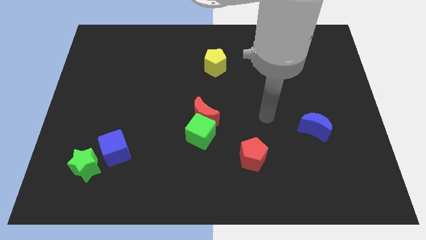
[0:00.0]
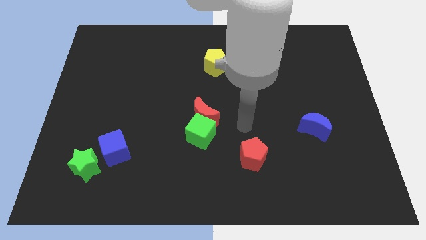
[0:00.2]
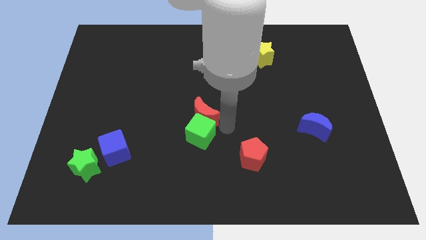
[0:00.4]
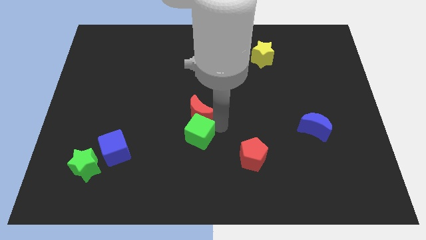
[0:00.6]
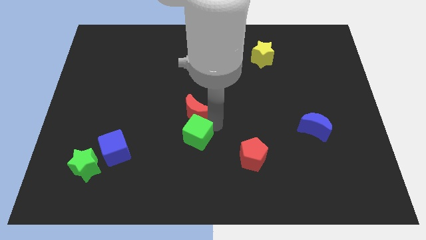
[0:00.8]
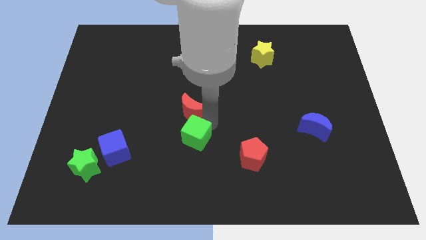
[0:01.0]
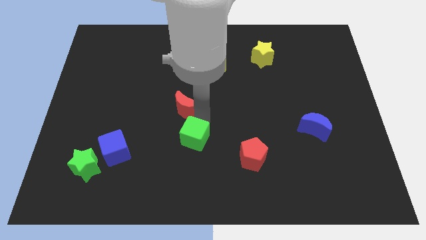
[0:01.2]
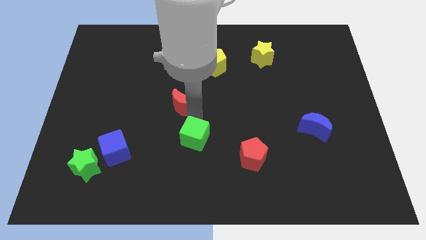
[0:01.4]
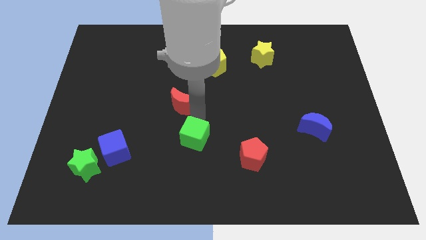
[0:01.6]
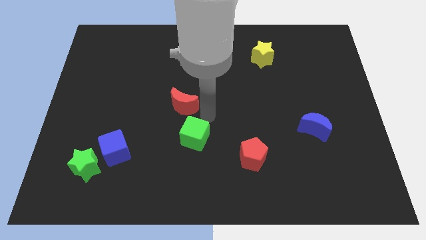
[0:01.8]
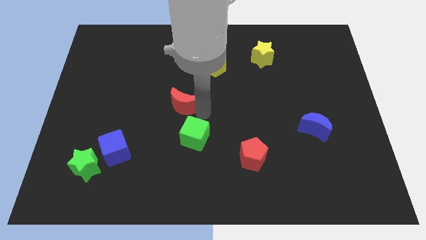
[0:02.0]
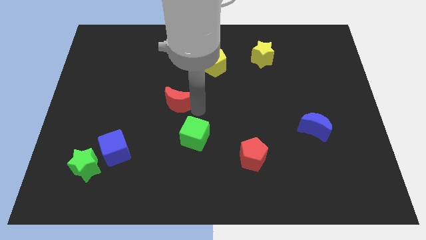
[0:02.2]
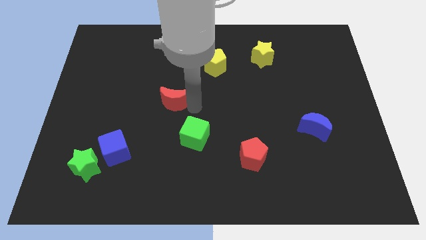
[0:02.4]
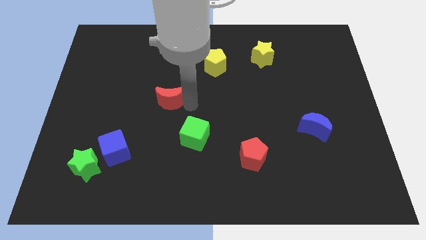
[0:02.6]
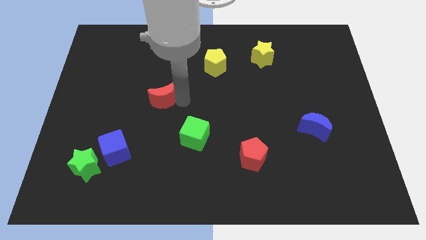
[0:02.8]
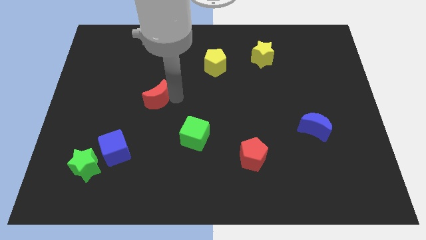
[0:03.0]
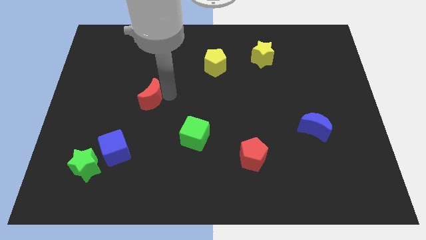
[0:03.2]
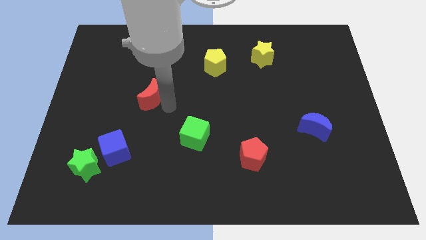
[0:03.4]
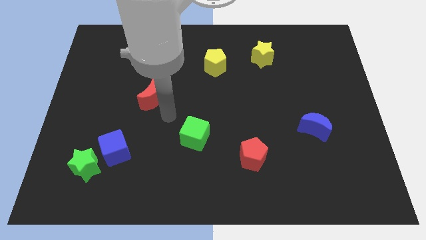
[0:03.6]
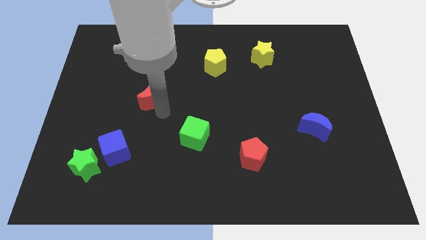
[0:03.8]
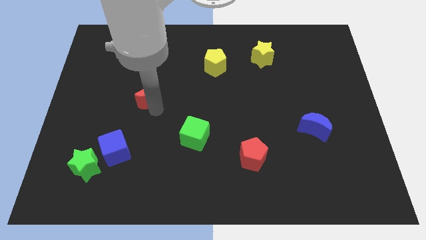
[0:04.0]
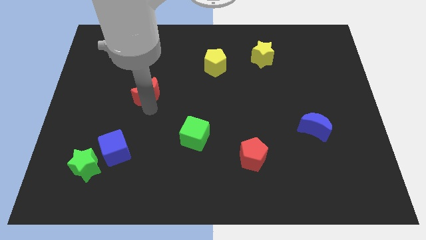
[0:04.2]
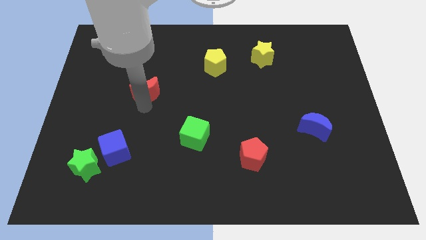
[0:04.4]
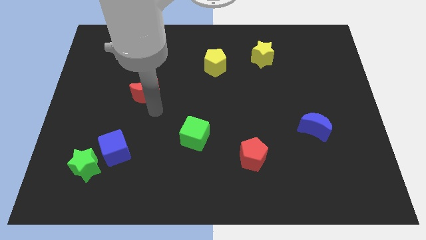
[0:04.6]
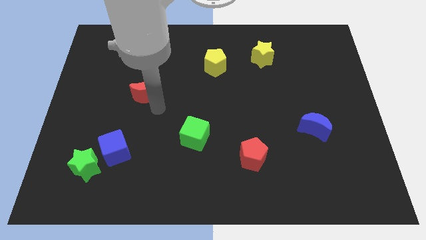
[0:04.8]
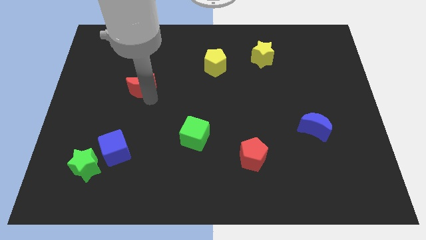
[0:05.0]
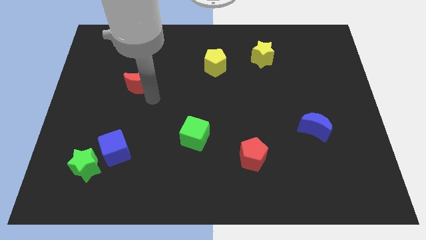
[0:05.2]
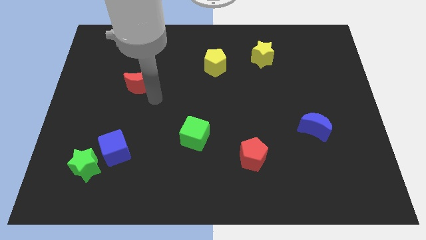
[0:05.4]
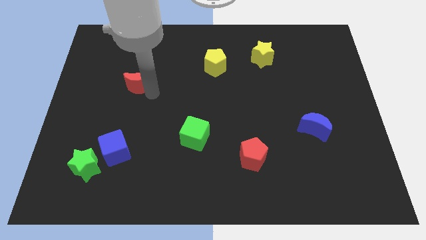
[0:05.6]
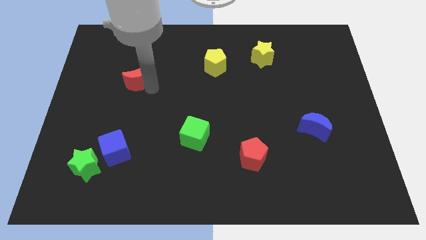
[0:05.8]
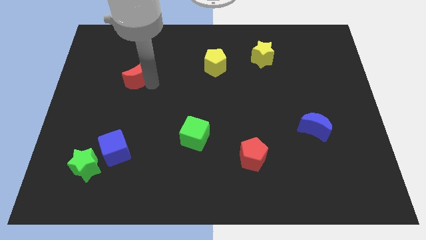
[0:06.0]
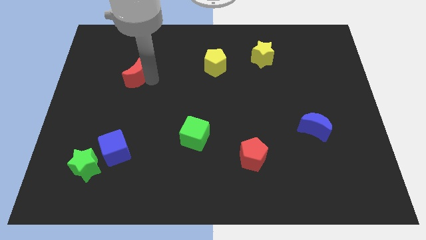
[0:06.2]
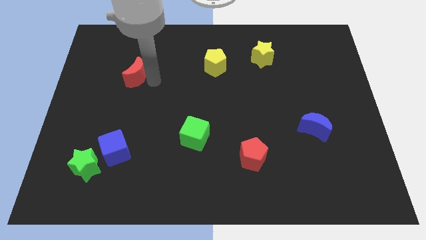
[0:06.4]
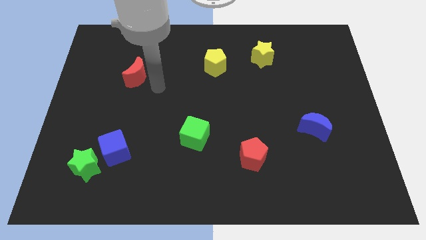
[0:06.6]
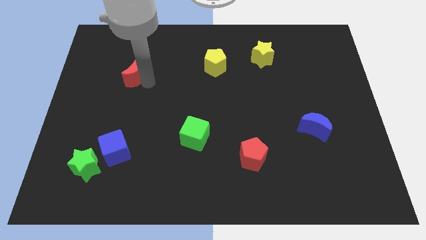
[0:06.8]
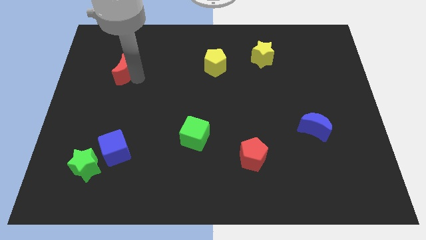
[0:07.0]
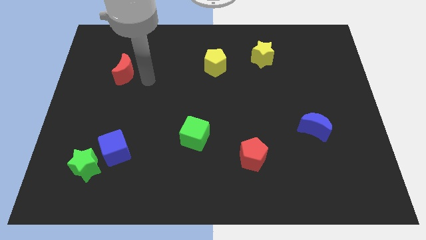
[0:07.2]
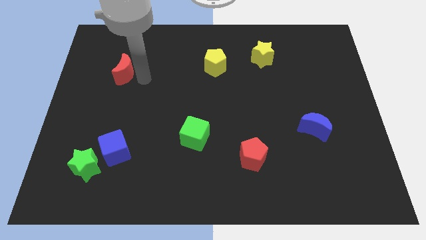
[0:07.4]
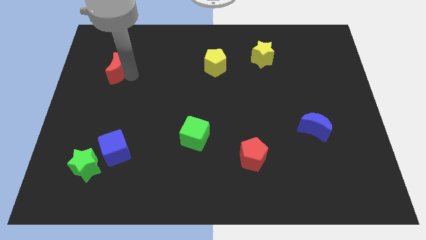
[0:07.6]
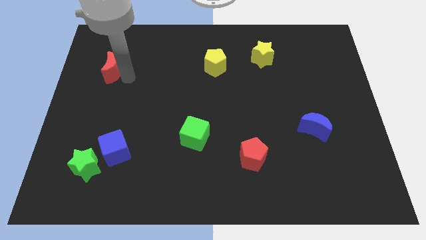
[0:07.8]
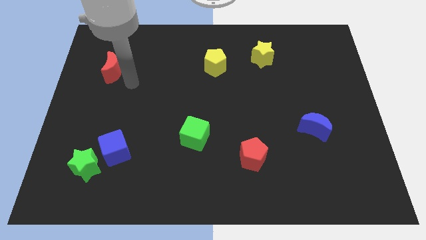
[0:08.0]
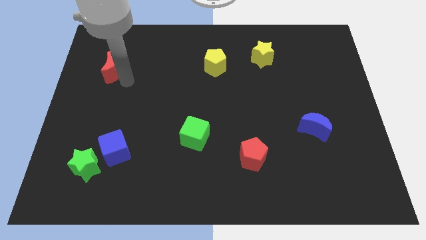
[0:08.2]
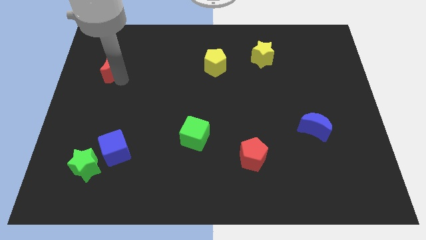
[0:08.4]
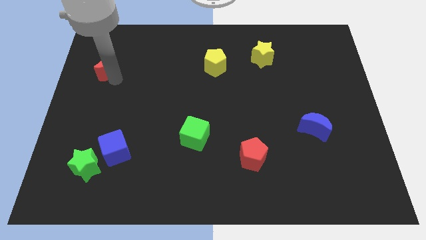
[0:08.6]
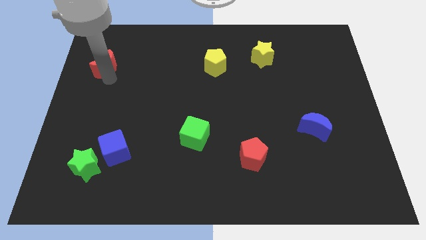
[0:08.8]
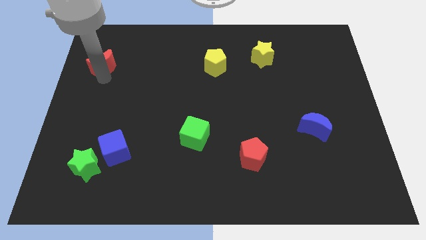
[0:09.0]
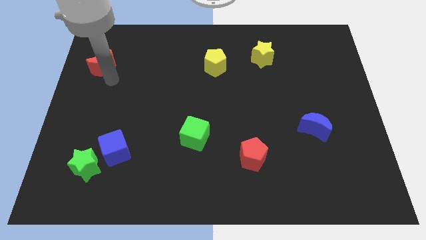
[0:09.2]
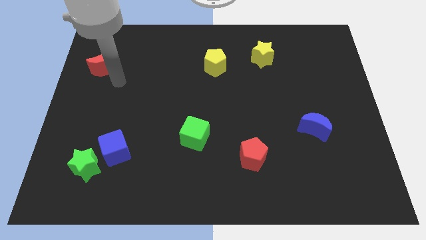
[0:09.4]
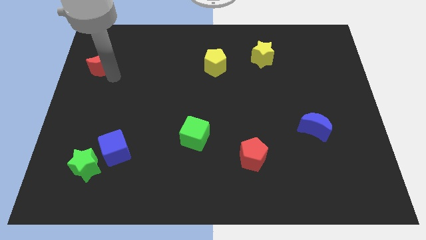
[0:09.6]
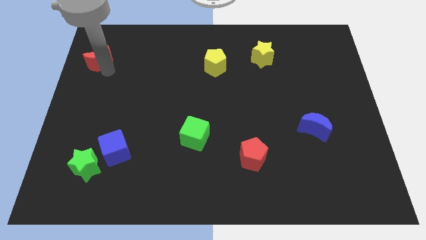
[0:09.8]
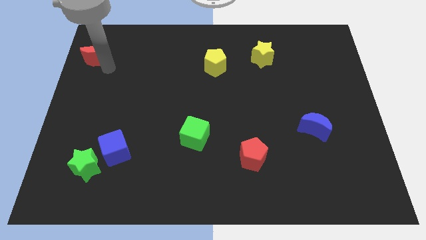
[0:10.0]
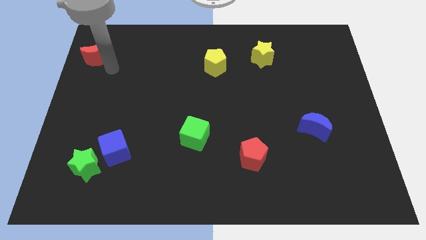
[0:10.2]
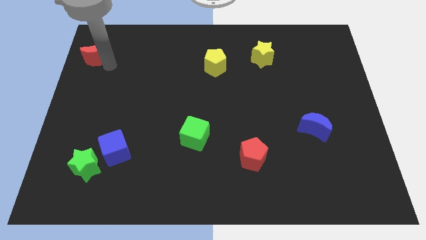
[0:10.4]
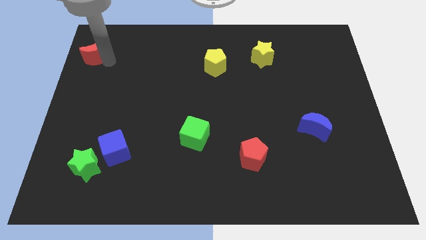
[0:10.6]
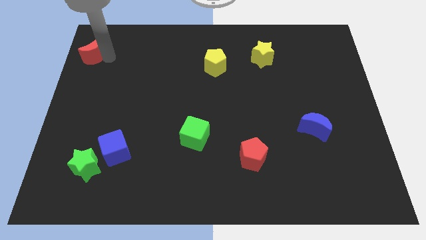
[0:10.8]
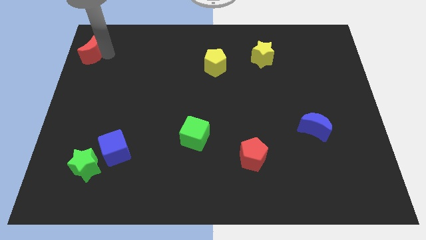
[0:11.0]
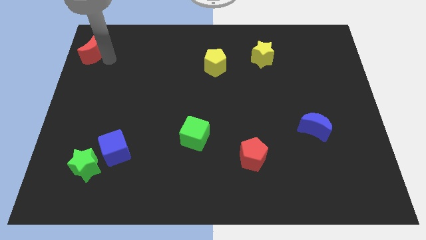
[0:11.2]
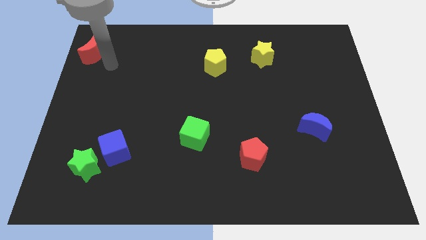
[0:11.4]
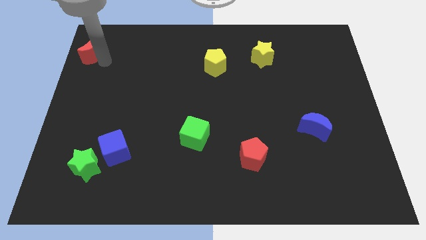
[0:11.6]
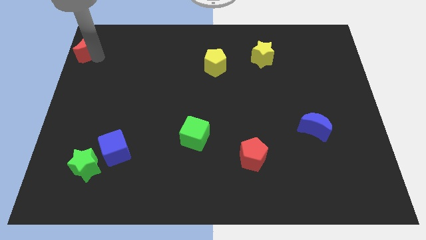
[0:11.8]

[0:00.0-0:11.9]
push the red moon to the top left corner
